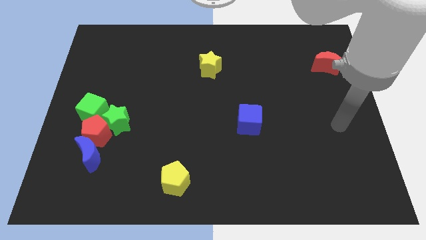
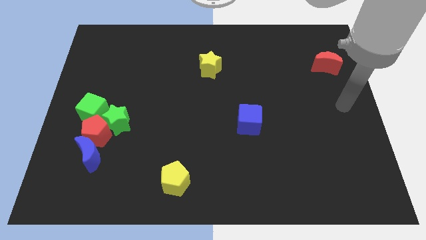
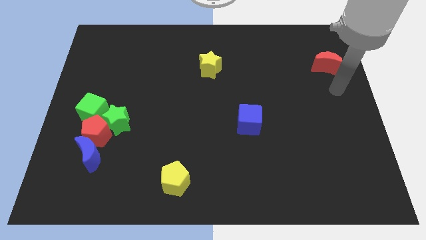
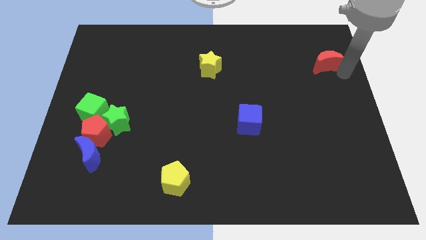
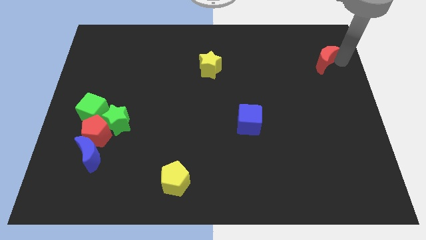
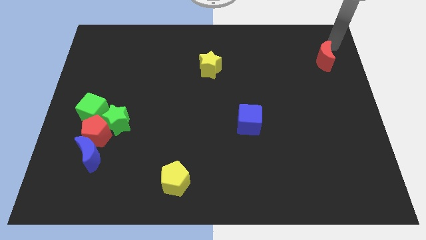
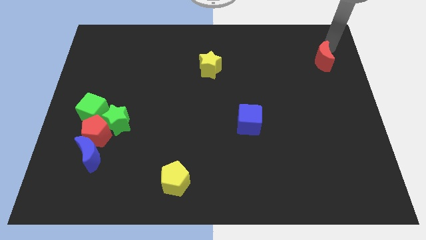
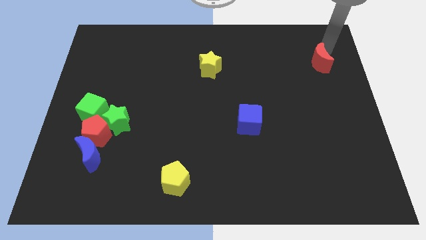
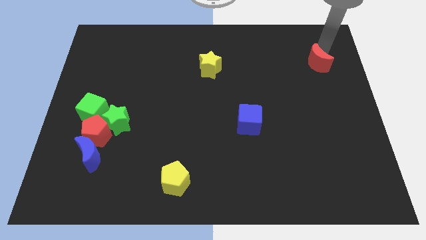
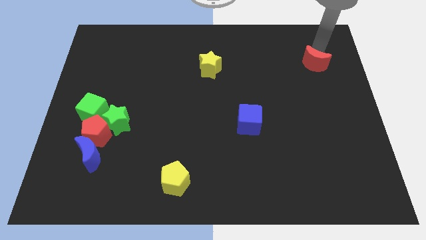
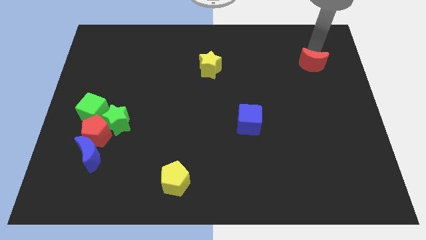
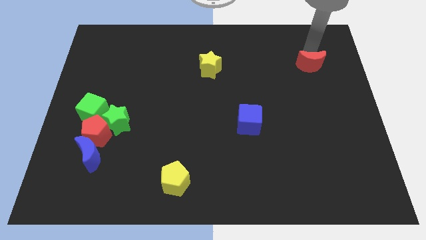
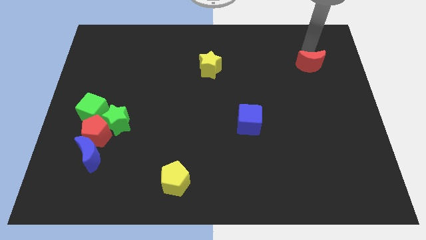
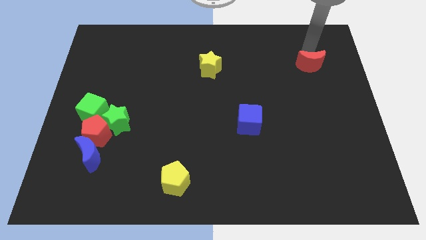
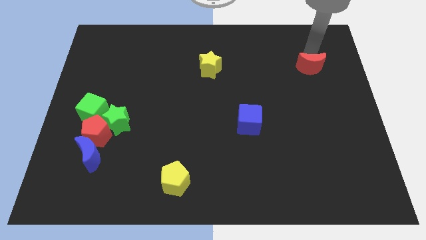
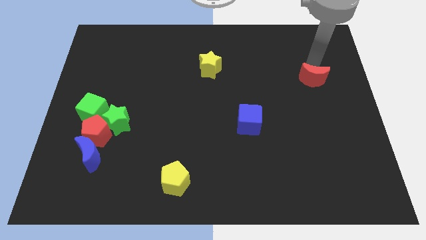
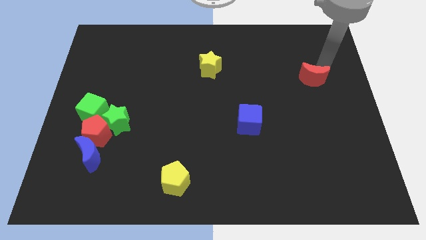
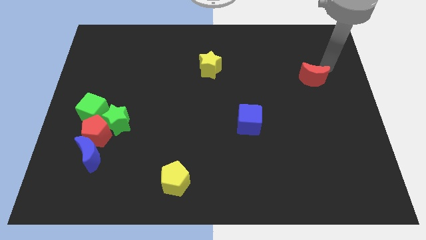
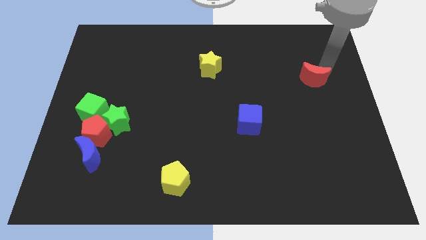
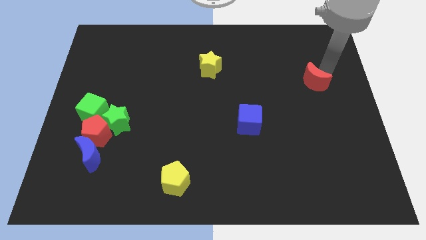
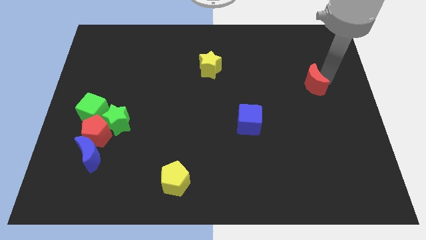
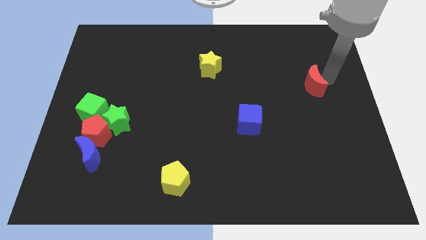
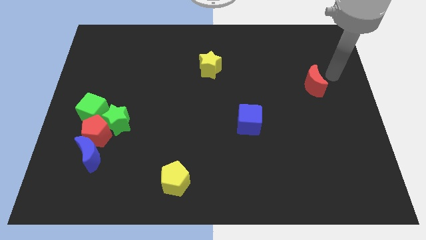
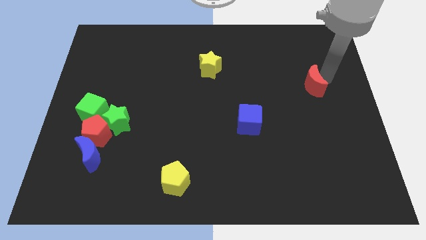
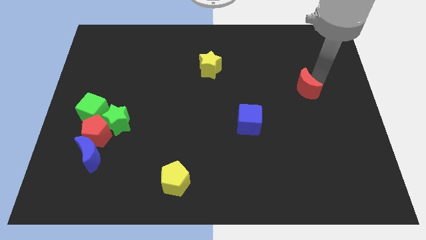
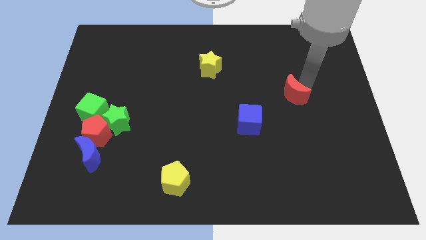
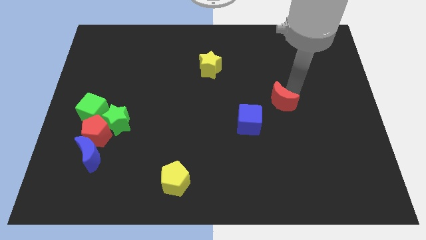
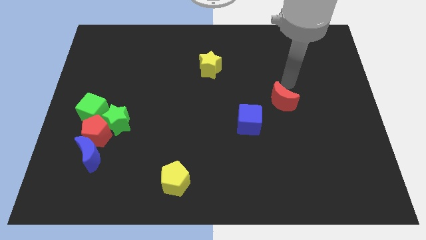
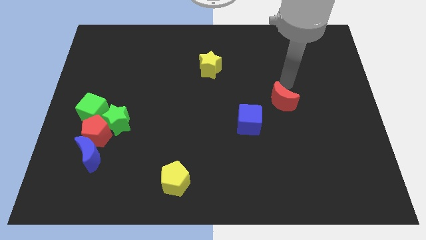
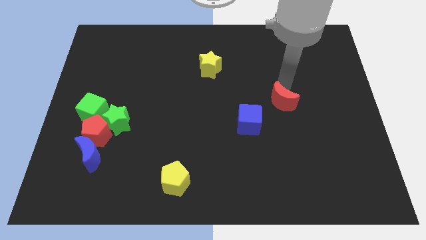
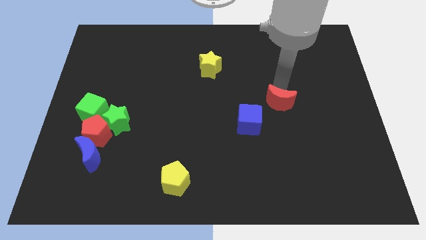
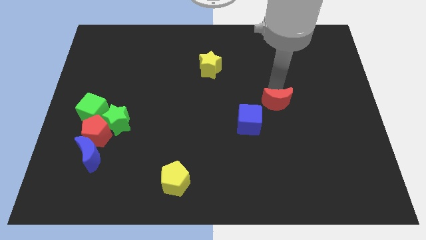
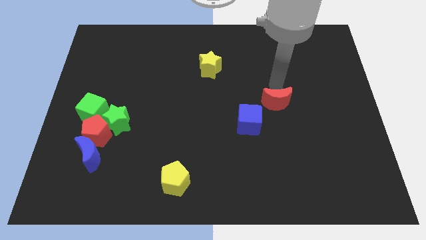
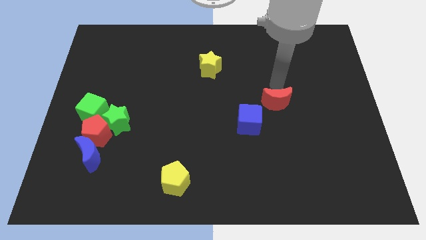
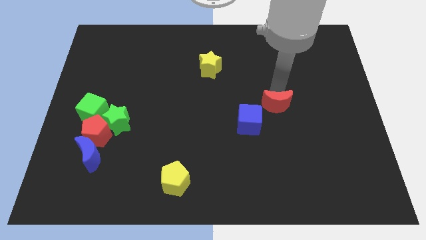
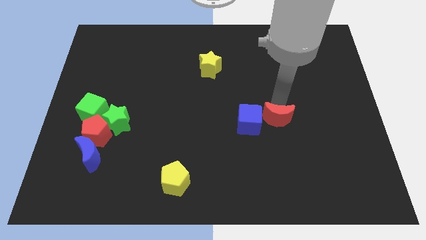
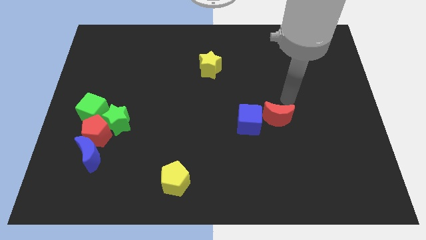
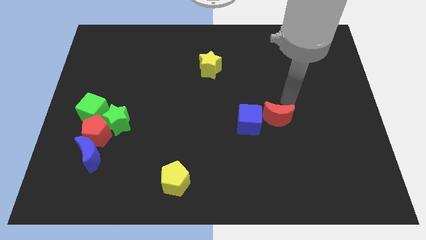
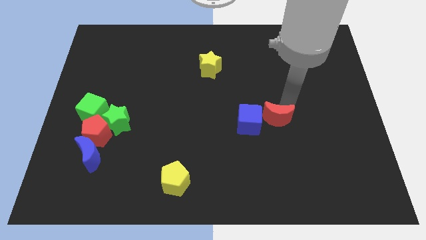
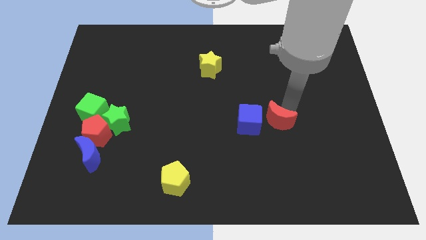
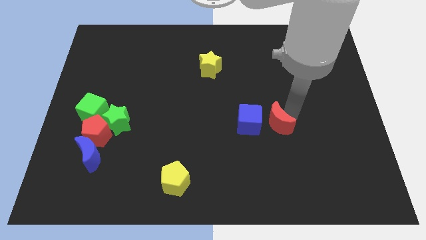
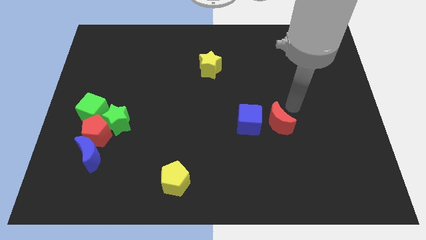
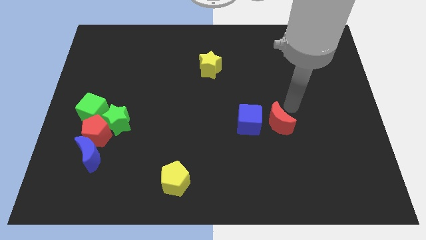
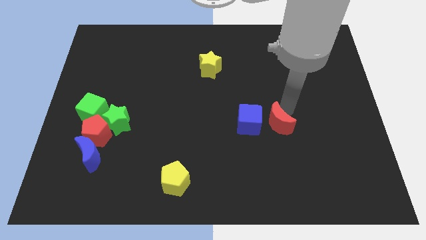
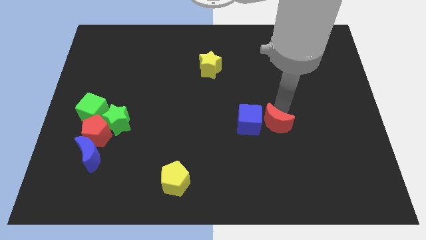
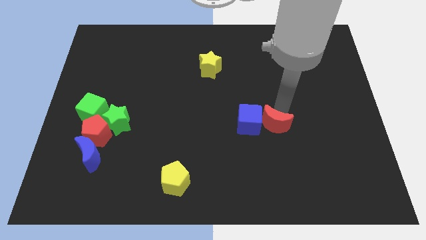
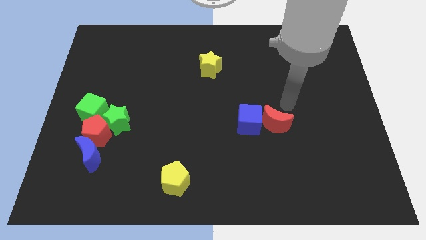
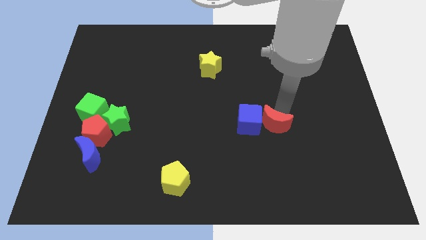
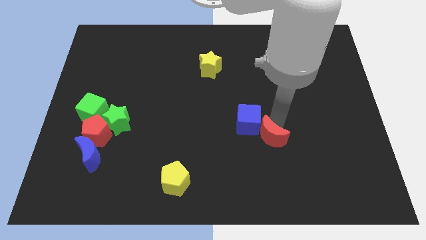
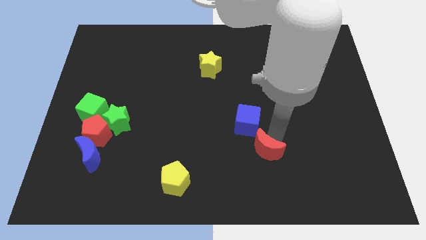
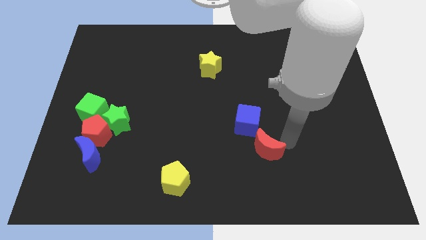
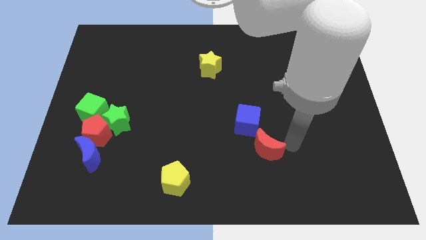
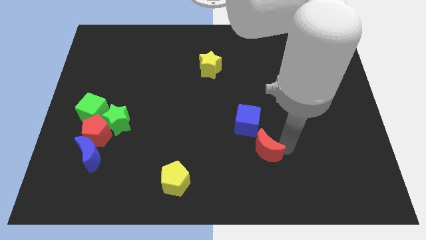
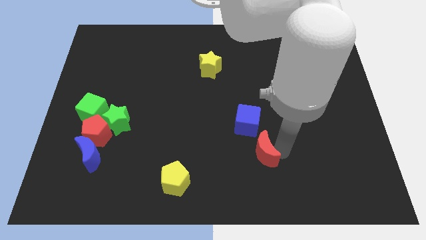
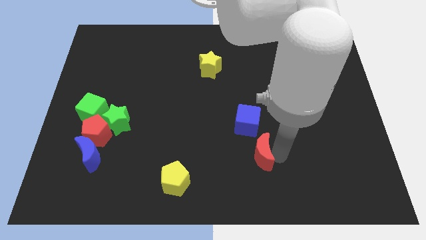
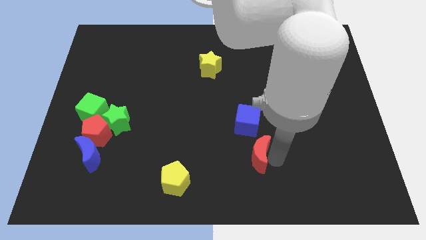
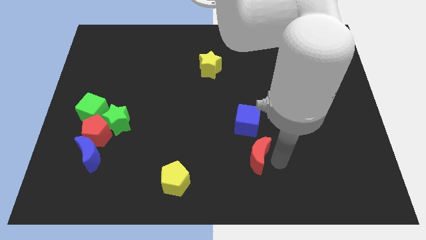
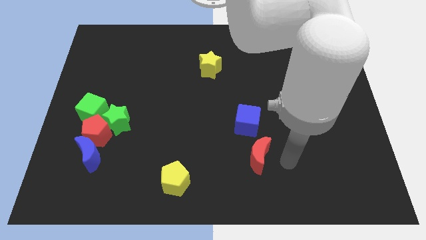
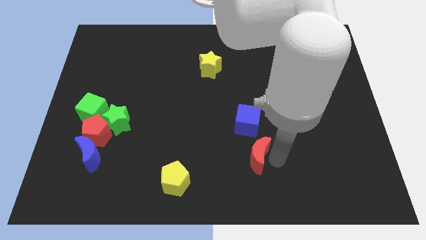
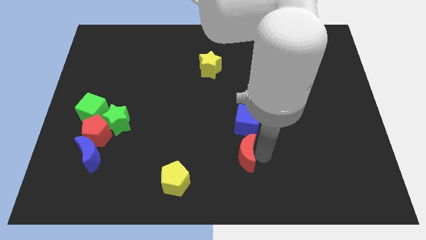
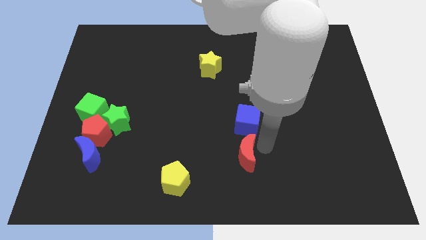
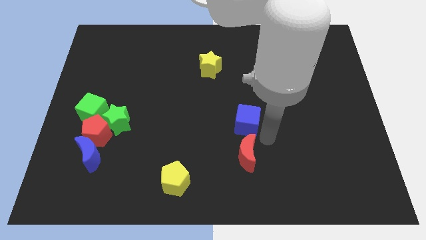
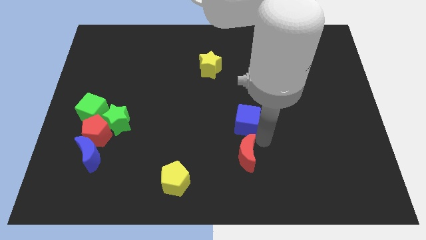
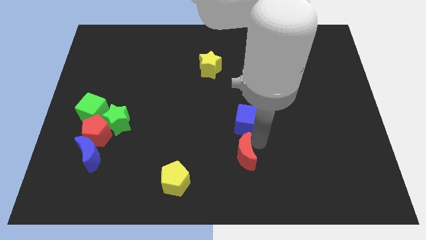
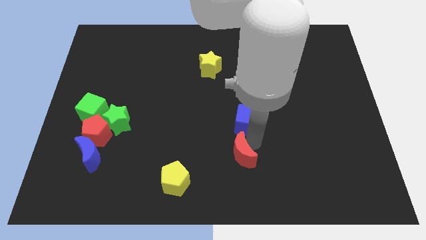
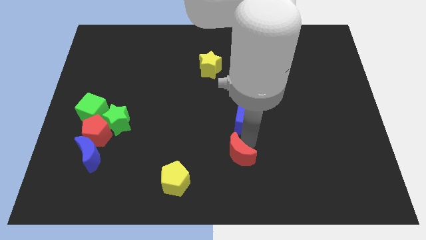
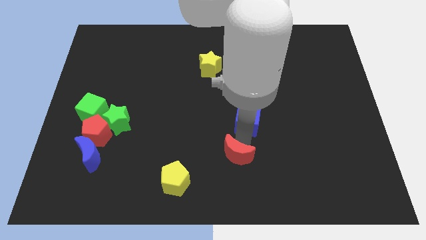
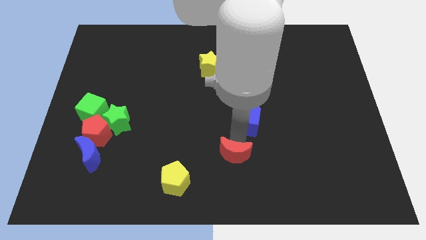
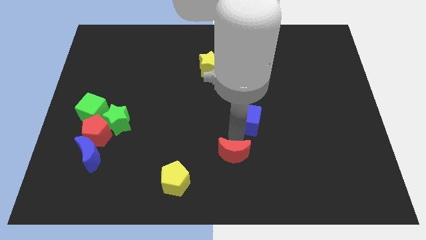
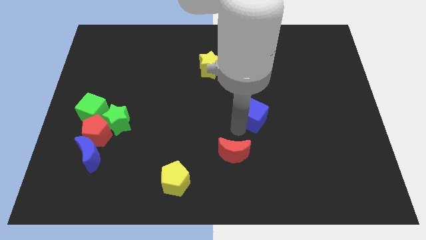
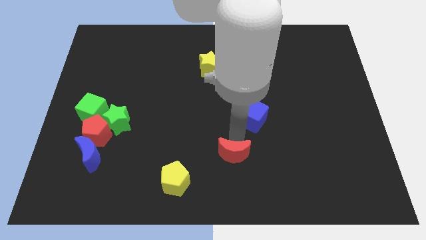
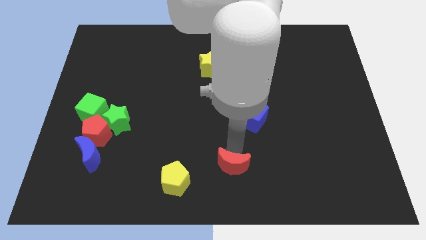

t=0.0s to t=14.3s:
put the red moon to the right of the yellow pentagon

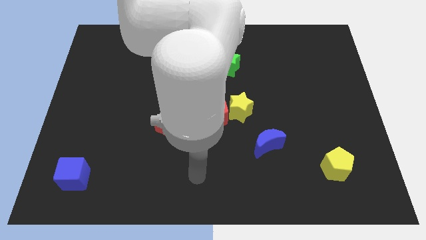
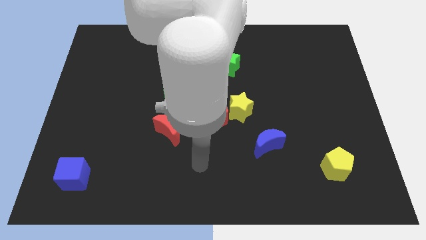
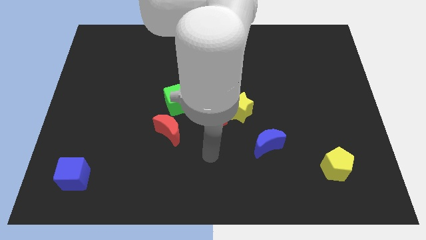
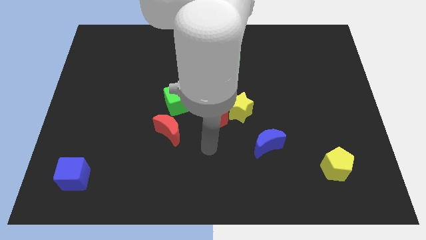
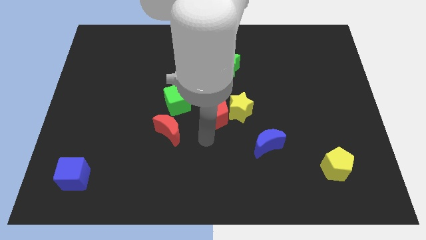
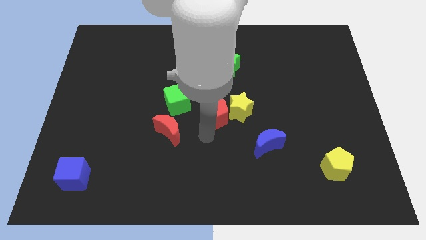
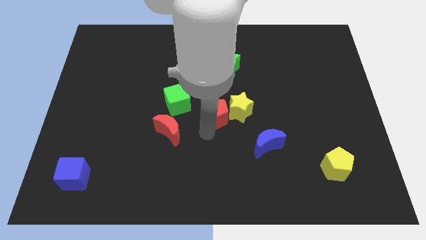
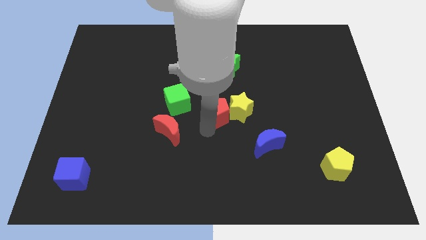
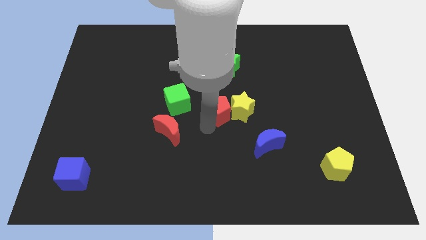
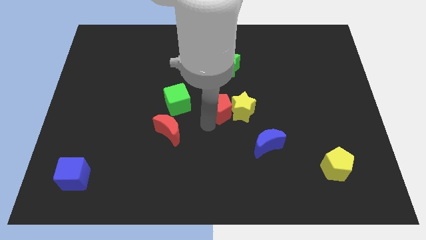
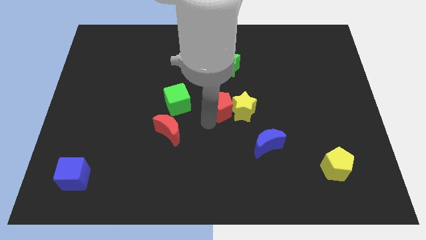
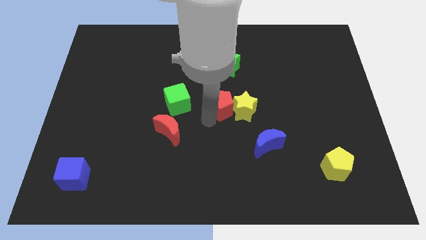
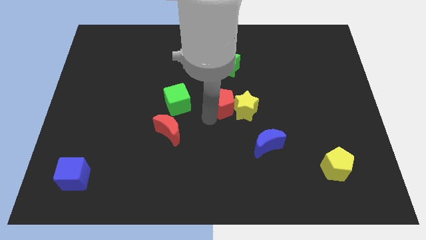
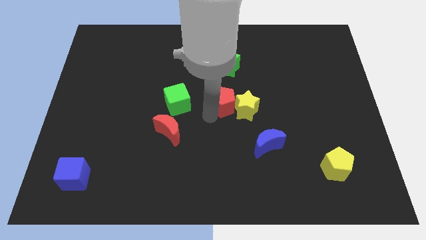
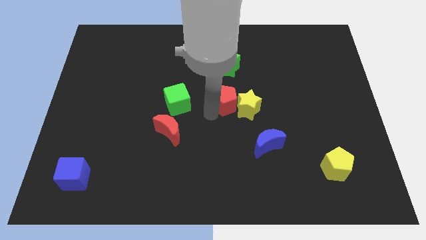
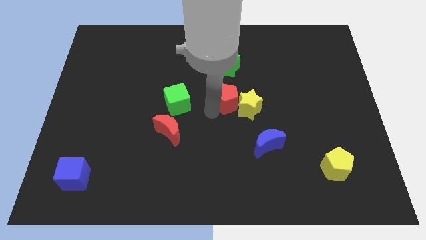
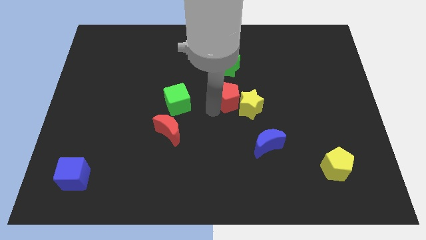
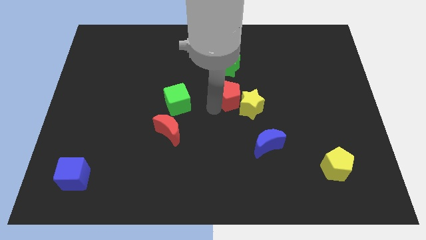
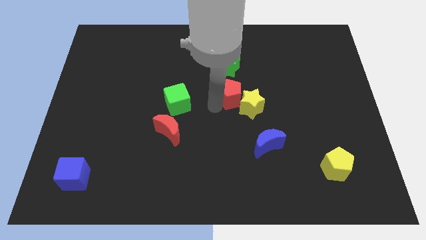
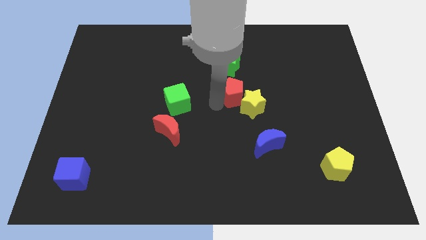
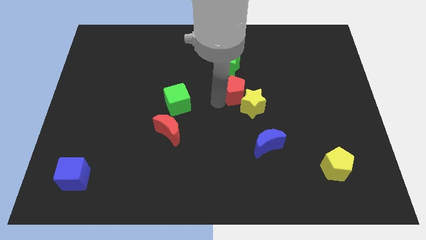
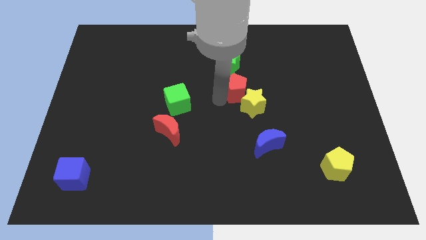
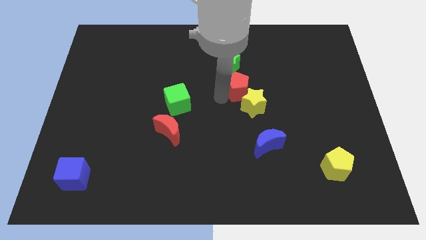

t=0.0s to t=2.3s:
push the red pentagon to the bottom right of the green star
